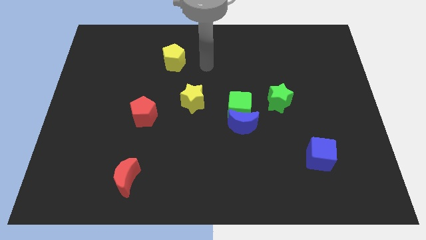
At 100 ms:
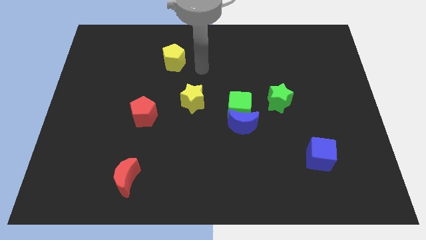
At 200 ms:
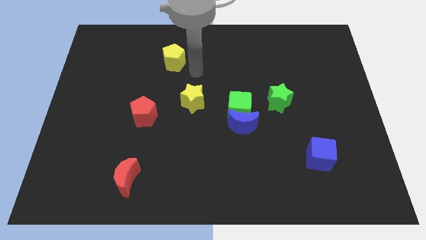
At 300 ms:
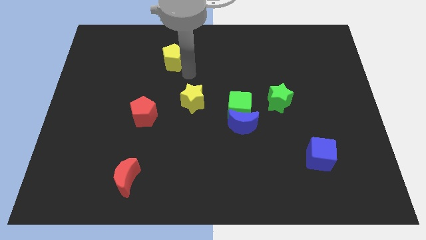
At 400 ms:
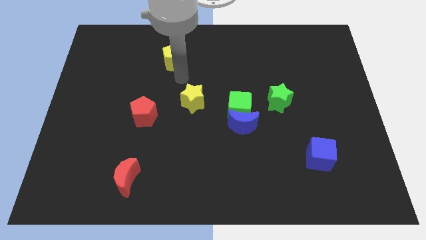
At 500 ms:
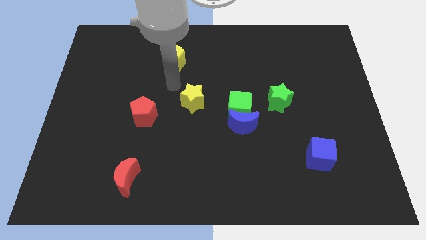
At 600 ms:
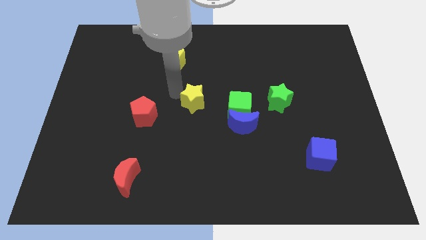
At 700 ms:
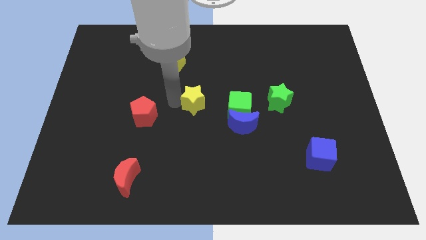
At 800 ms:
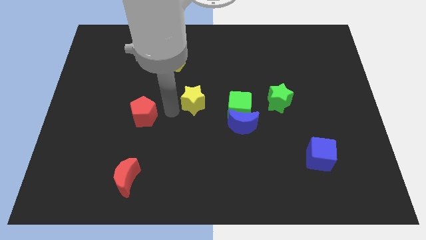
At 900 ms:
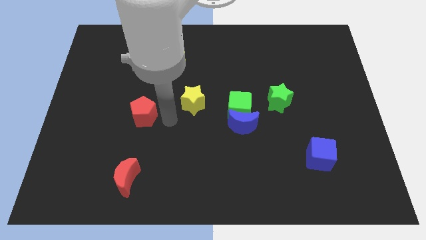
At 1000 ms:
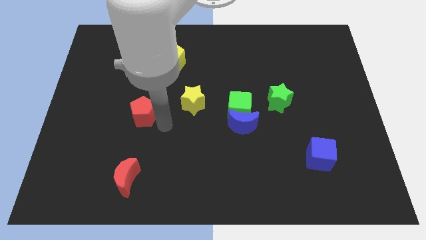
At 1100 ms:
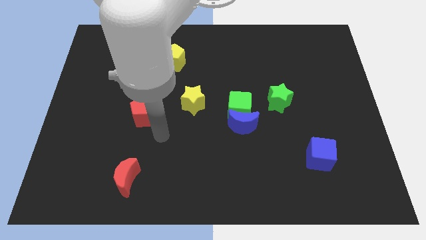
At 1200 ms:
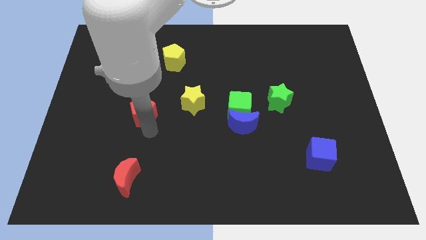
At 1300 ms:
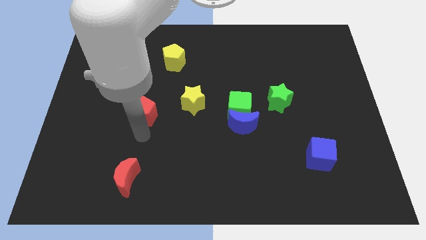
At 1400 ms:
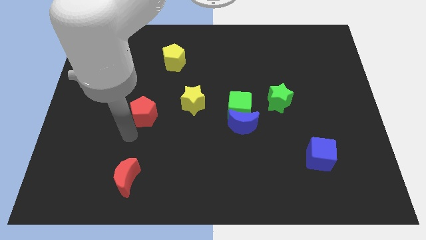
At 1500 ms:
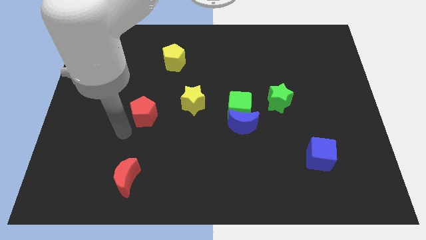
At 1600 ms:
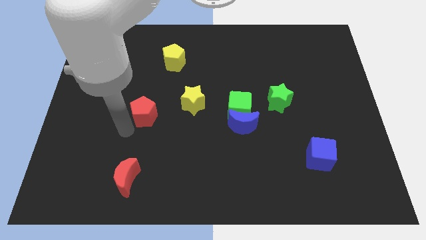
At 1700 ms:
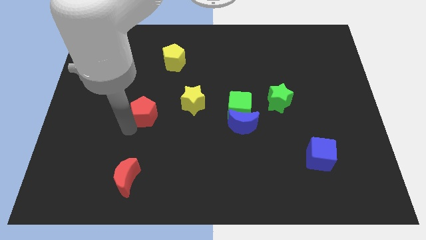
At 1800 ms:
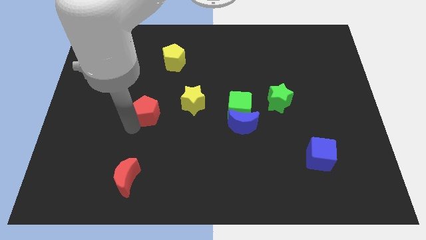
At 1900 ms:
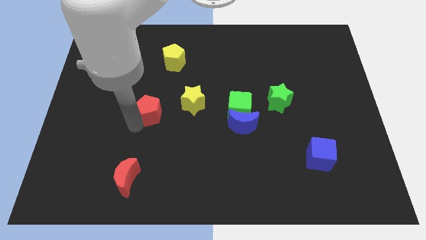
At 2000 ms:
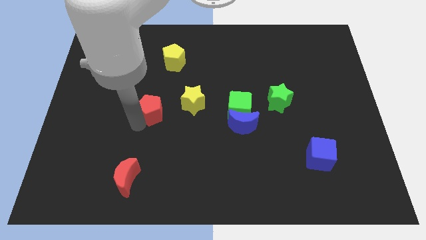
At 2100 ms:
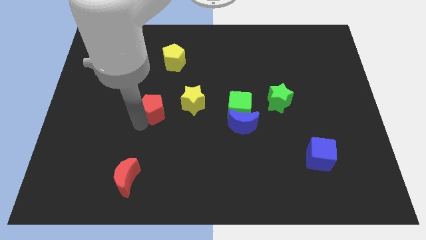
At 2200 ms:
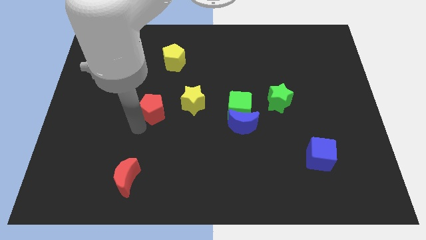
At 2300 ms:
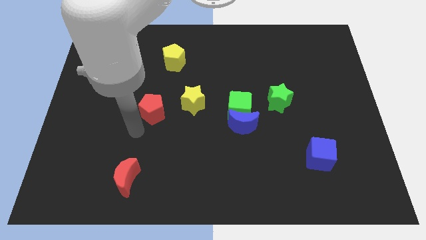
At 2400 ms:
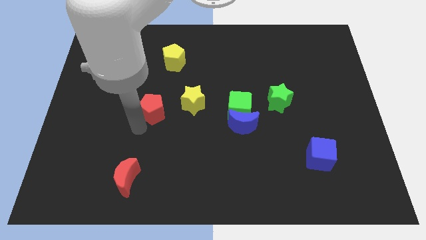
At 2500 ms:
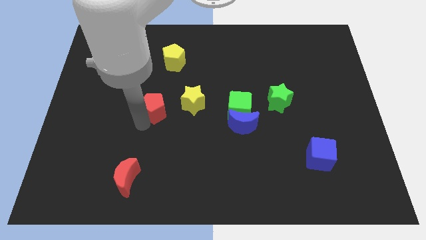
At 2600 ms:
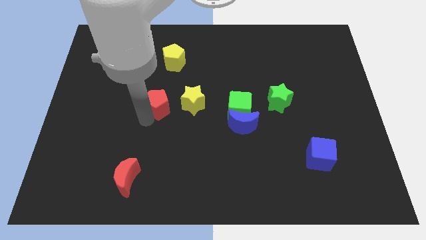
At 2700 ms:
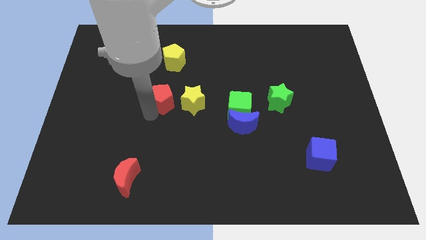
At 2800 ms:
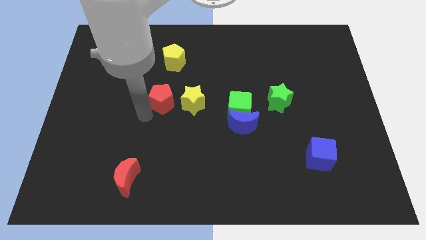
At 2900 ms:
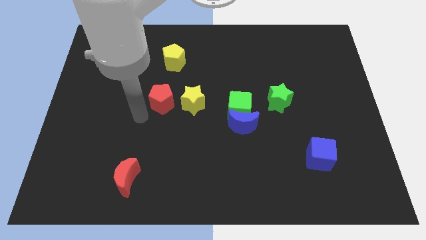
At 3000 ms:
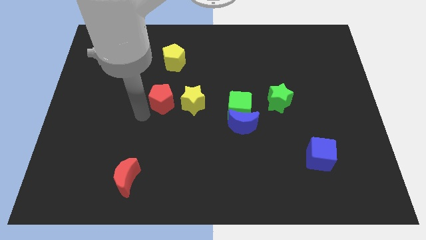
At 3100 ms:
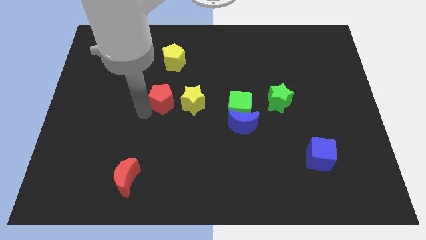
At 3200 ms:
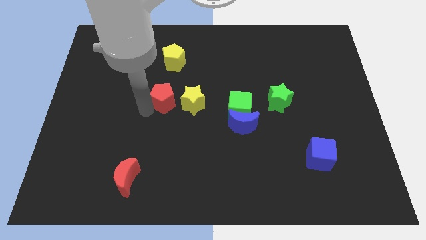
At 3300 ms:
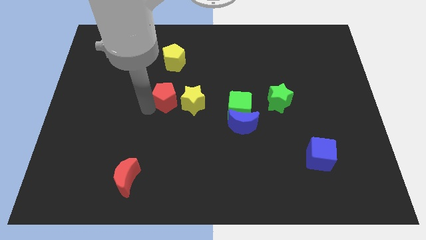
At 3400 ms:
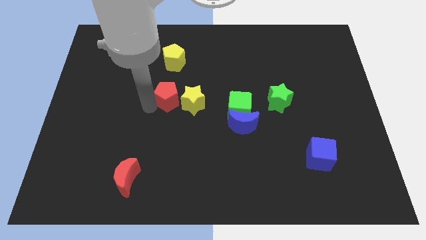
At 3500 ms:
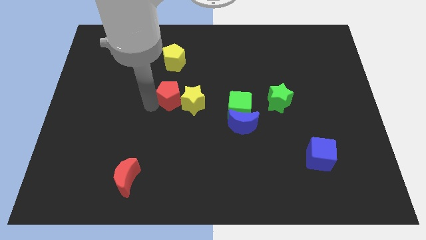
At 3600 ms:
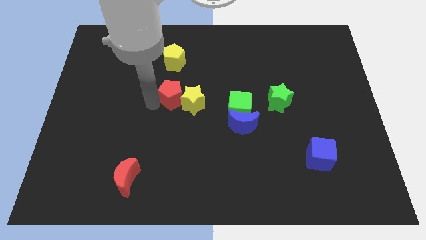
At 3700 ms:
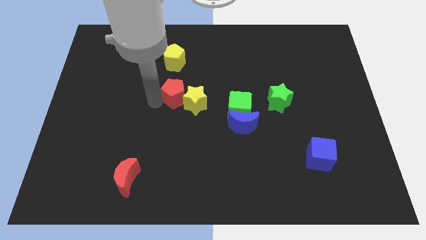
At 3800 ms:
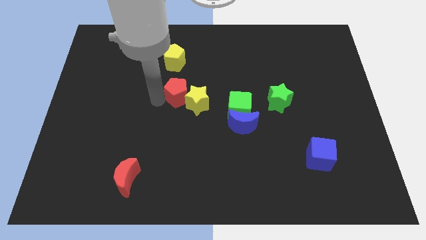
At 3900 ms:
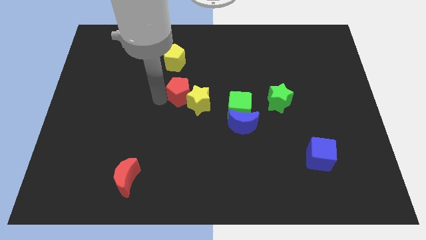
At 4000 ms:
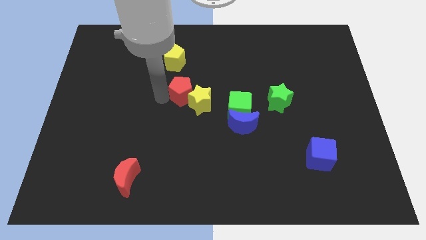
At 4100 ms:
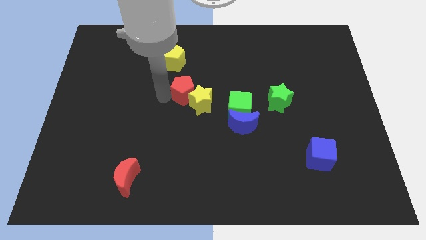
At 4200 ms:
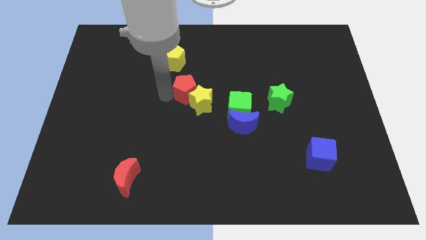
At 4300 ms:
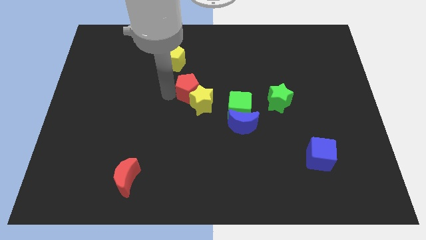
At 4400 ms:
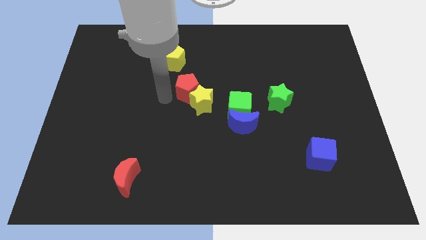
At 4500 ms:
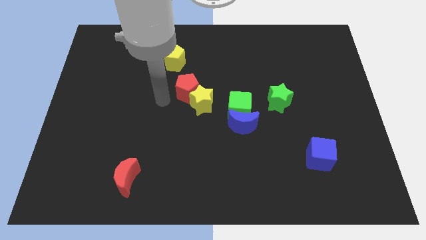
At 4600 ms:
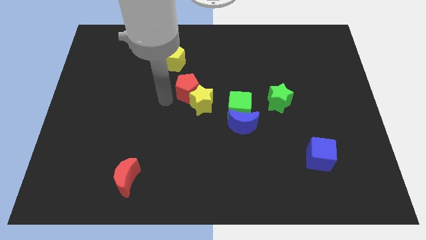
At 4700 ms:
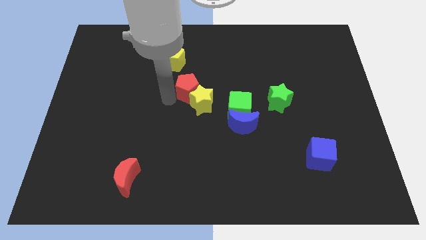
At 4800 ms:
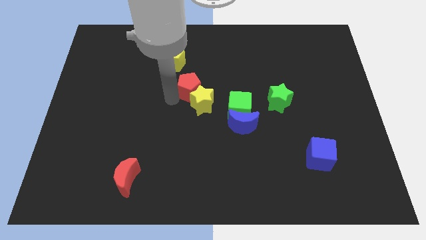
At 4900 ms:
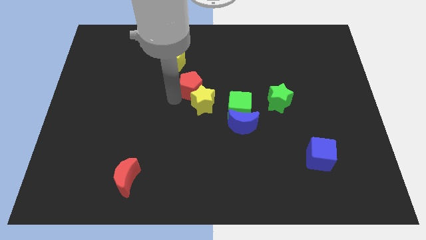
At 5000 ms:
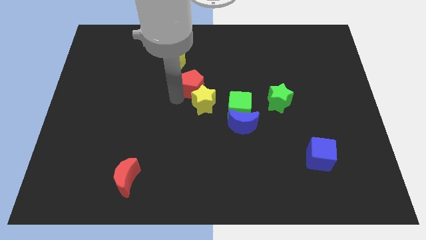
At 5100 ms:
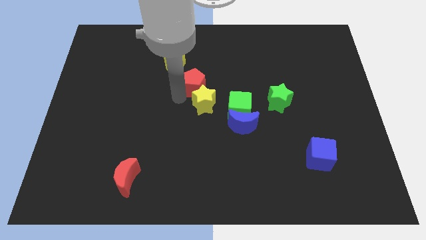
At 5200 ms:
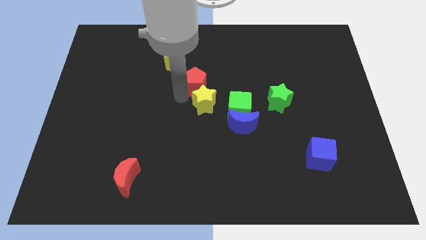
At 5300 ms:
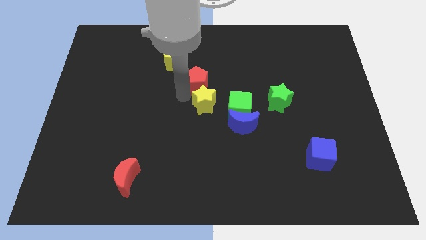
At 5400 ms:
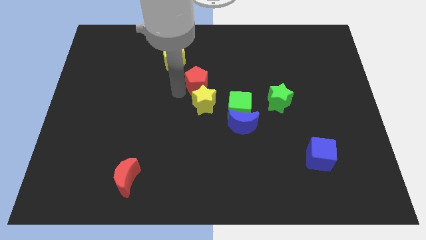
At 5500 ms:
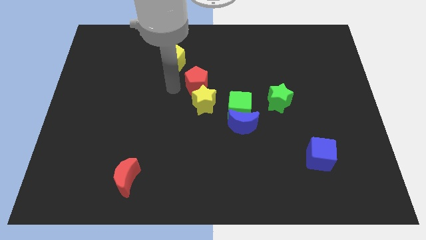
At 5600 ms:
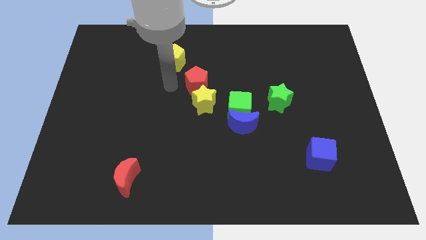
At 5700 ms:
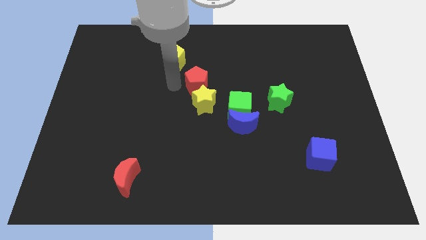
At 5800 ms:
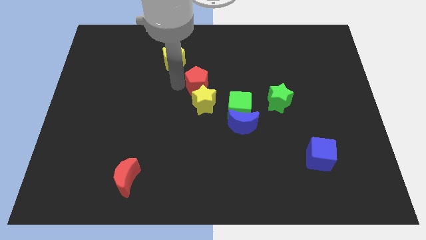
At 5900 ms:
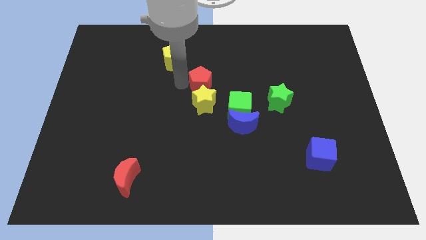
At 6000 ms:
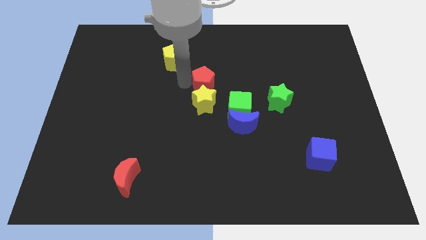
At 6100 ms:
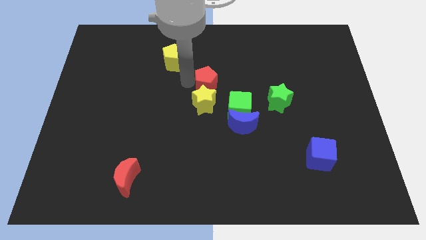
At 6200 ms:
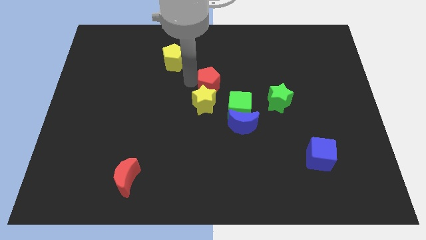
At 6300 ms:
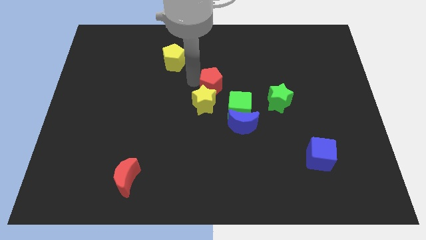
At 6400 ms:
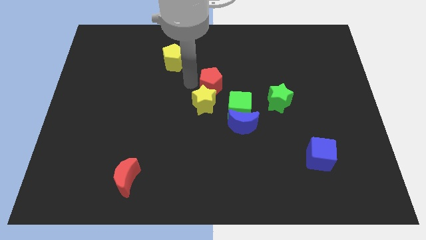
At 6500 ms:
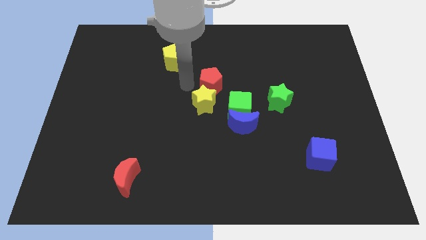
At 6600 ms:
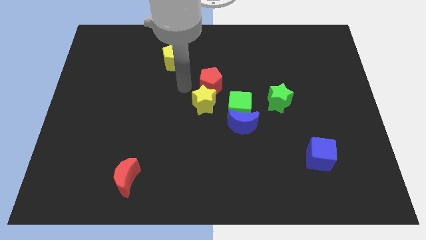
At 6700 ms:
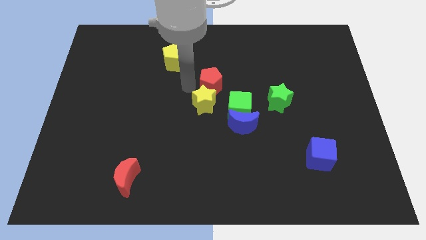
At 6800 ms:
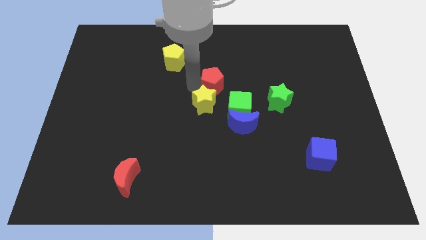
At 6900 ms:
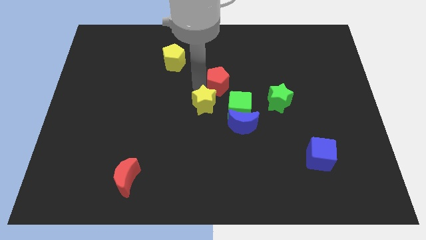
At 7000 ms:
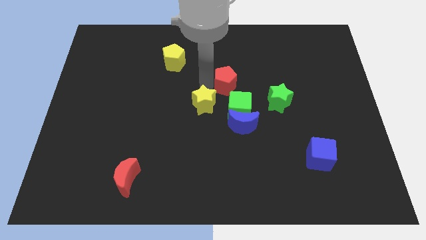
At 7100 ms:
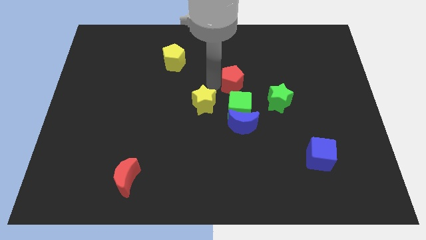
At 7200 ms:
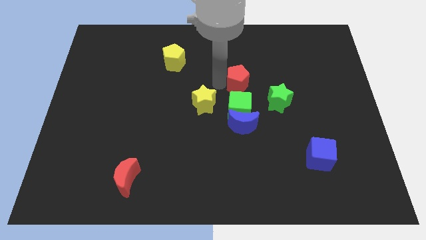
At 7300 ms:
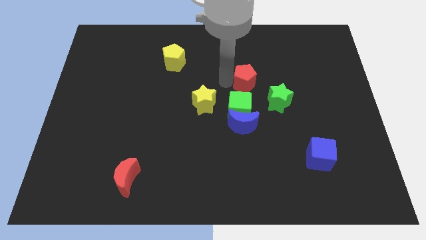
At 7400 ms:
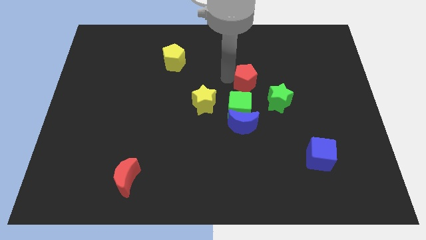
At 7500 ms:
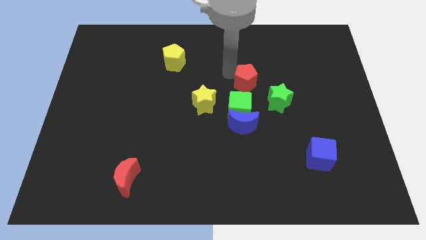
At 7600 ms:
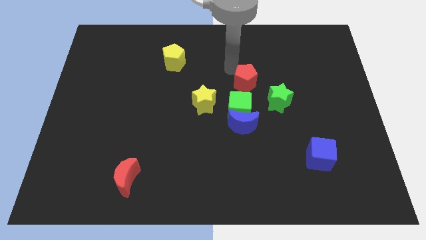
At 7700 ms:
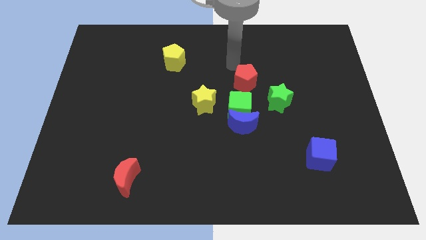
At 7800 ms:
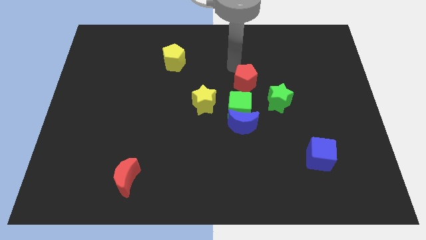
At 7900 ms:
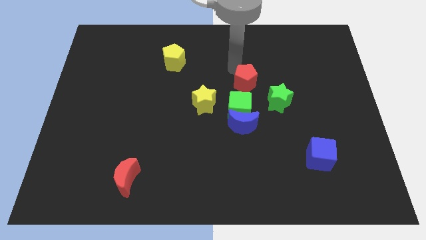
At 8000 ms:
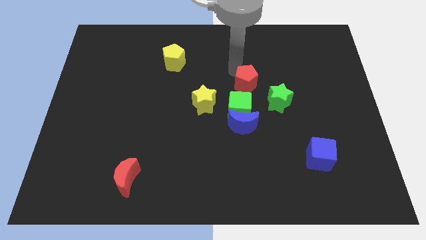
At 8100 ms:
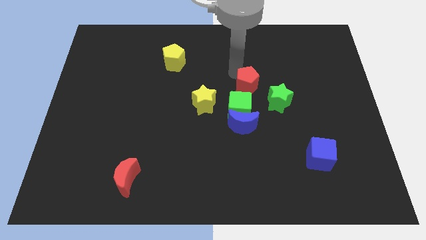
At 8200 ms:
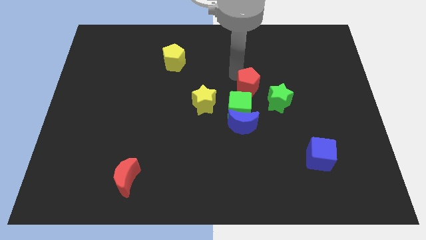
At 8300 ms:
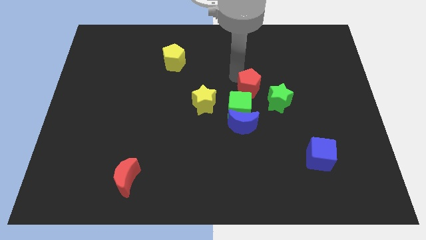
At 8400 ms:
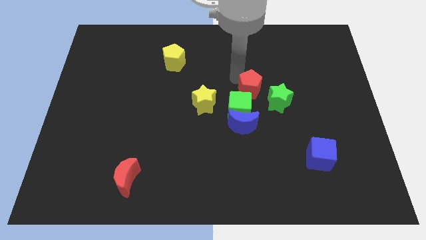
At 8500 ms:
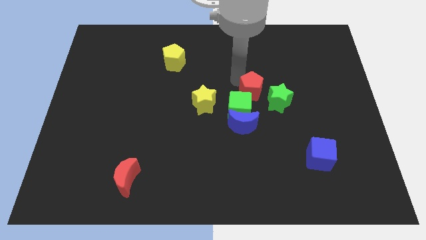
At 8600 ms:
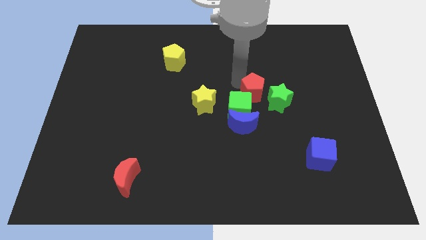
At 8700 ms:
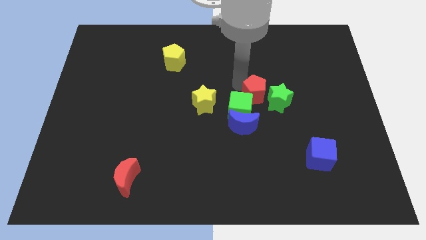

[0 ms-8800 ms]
push the red pentagon to the top right side of the blue moon

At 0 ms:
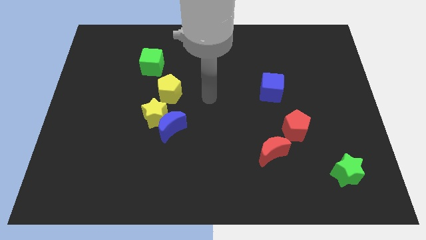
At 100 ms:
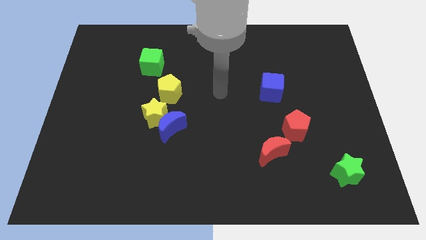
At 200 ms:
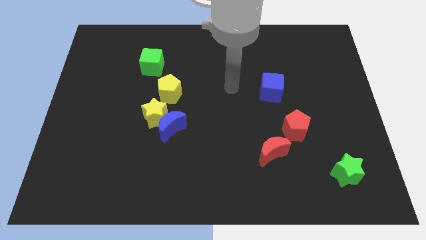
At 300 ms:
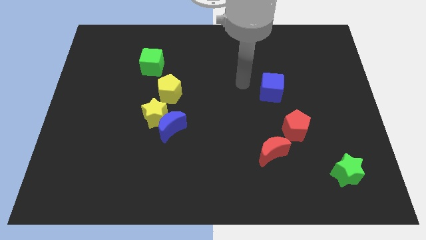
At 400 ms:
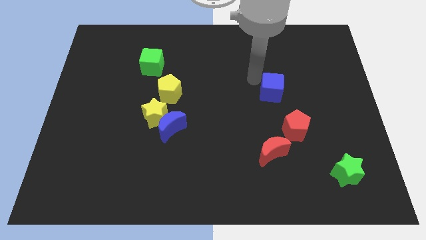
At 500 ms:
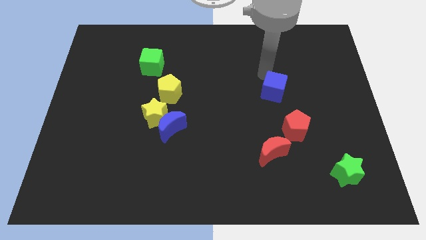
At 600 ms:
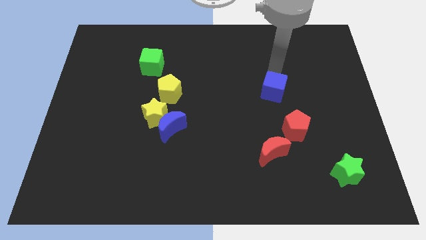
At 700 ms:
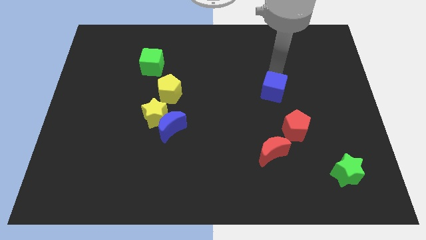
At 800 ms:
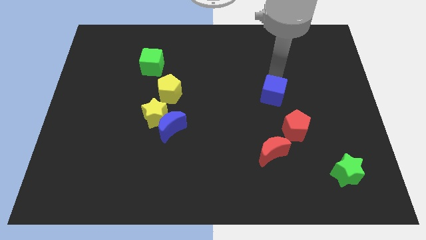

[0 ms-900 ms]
push the blue cube to the top left of the red pentagon
